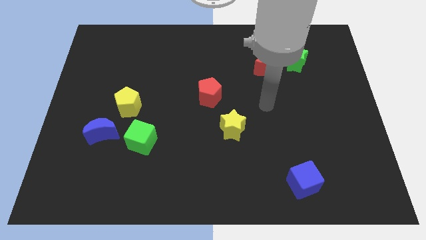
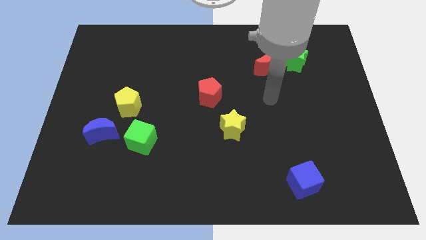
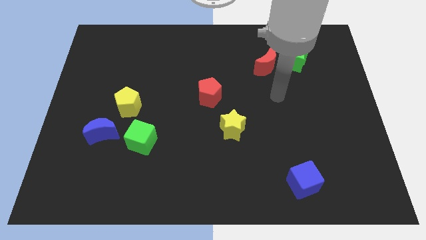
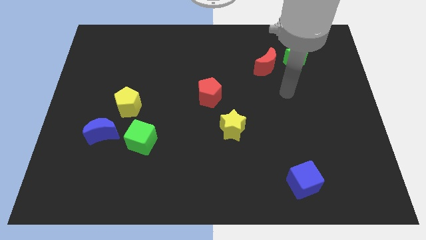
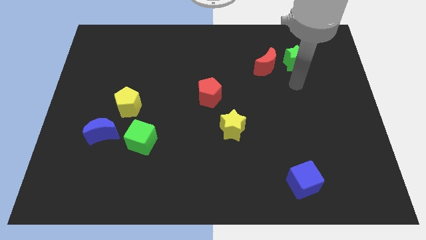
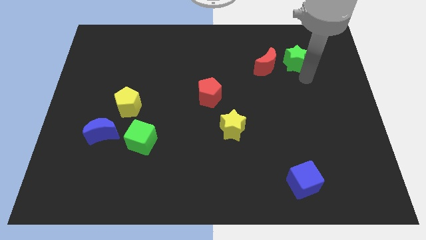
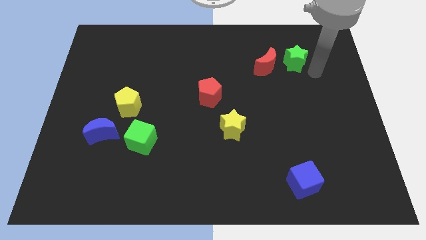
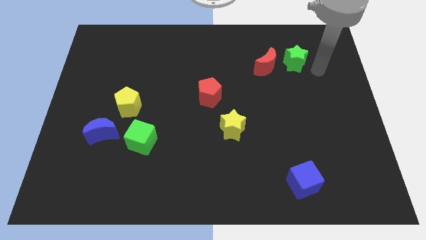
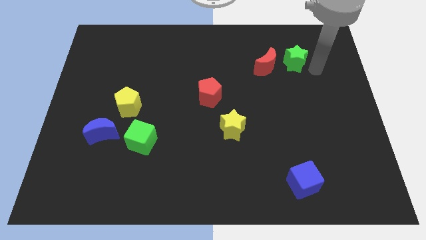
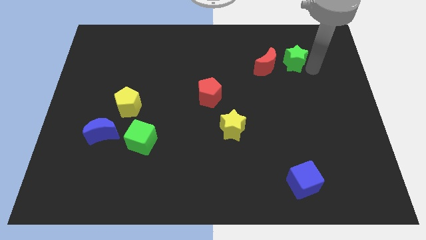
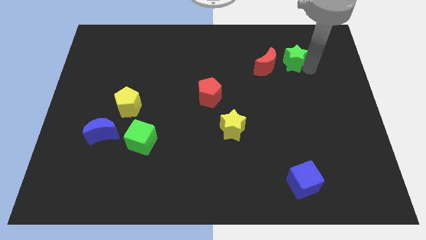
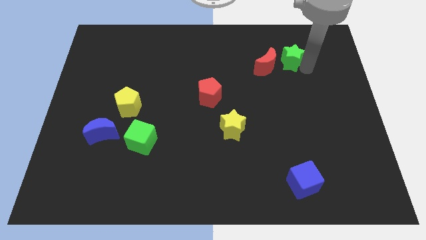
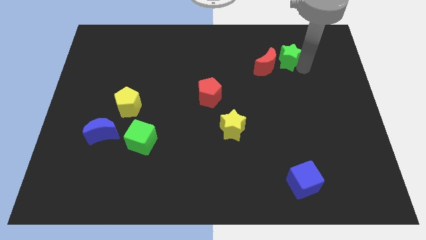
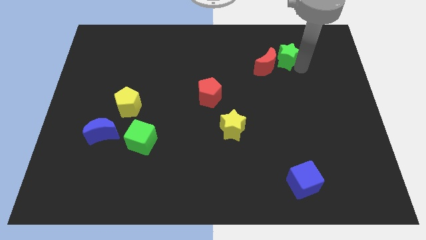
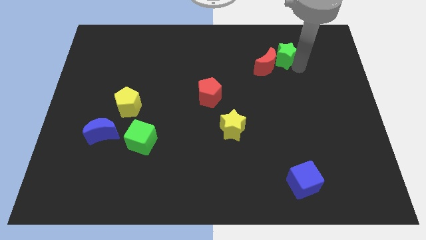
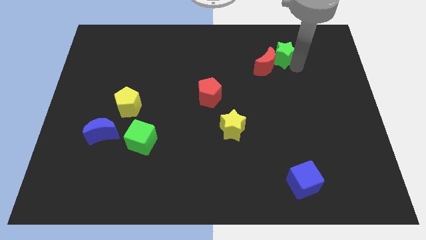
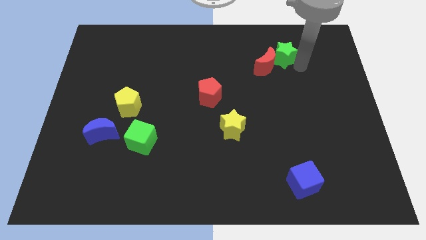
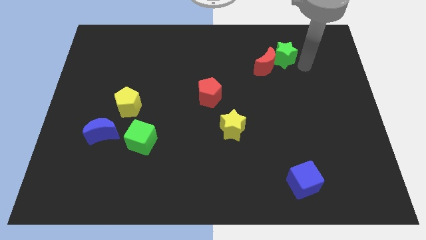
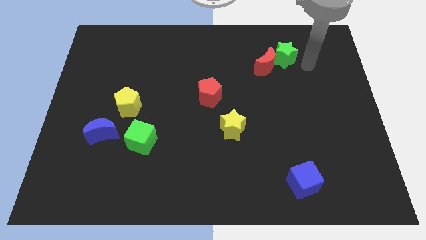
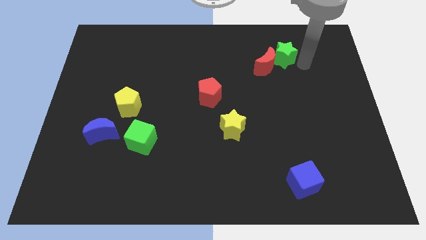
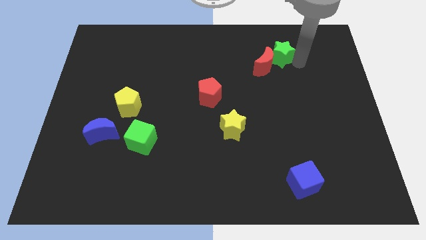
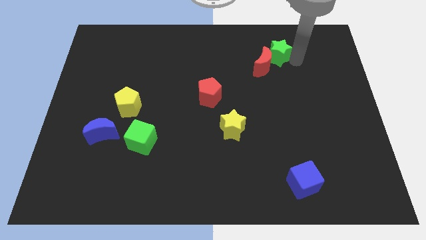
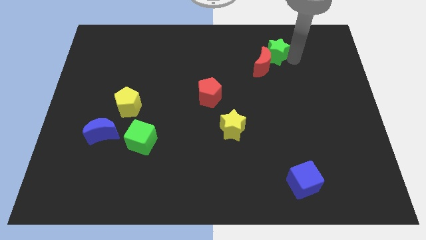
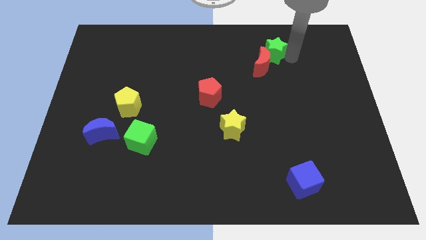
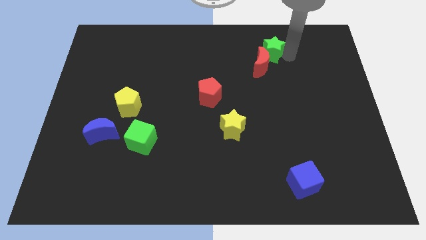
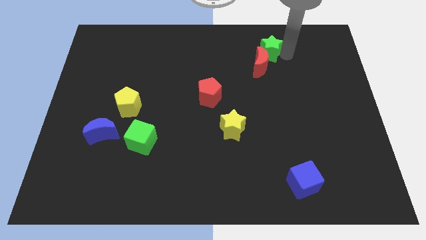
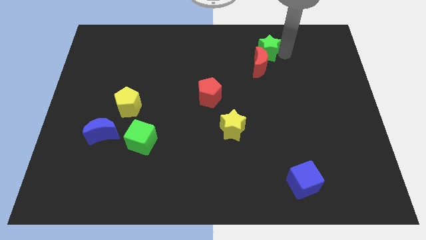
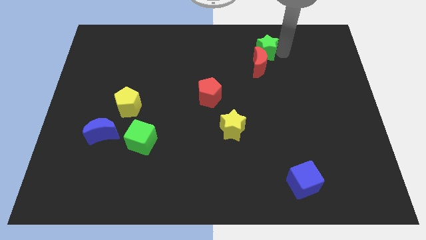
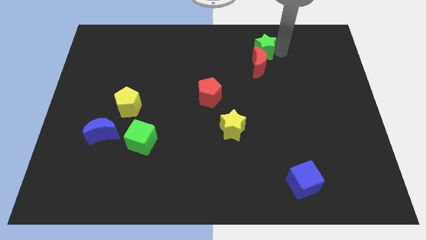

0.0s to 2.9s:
slightly slide the green star to the left

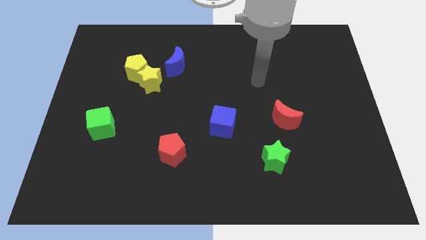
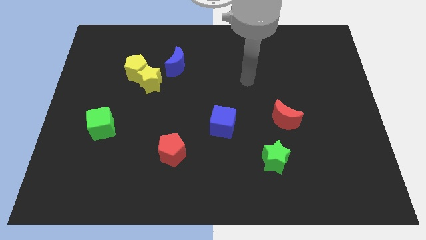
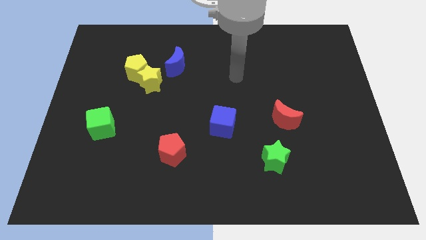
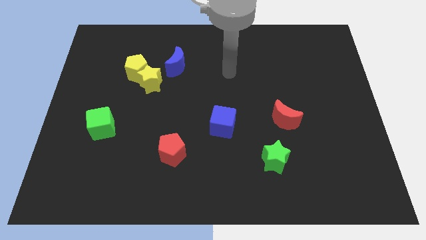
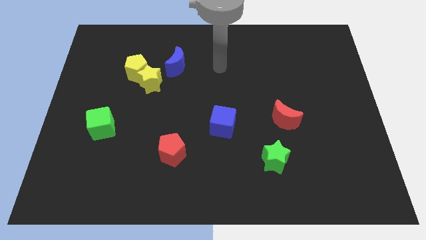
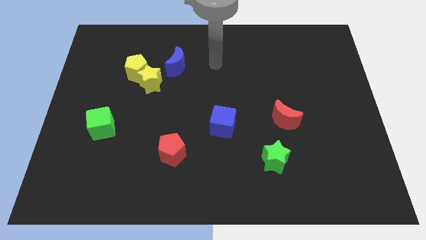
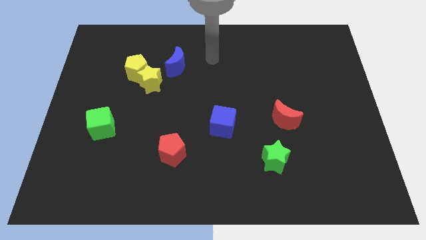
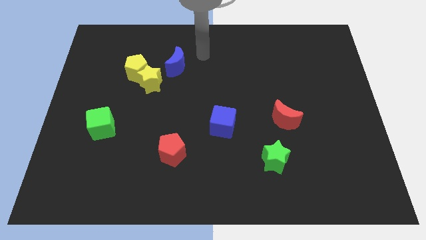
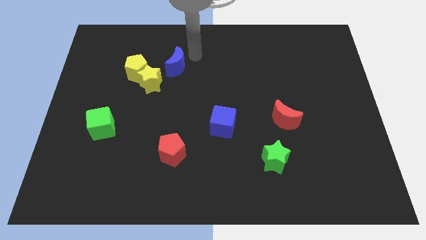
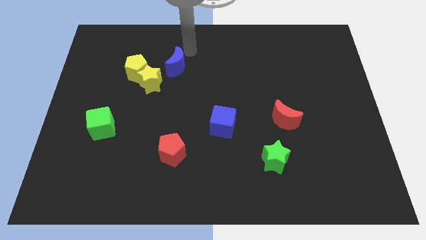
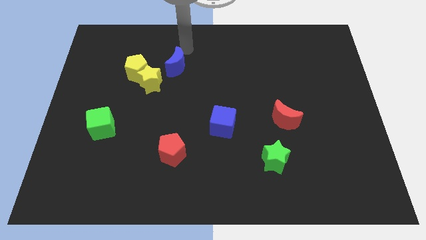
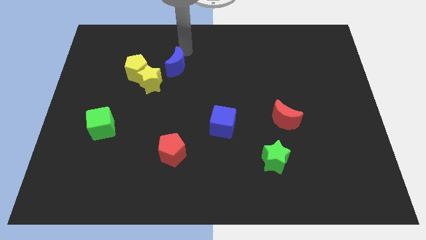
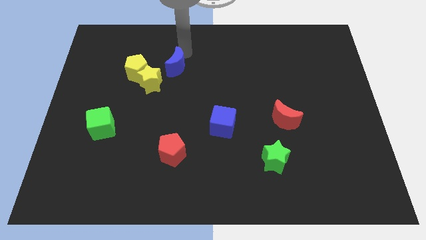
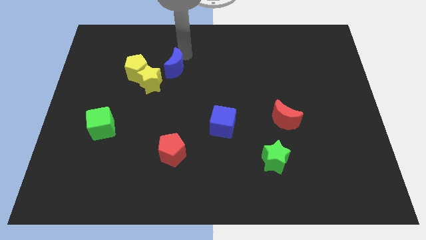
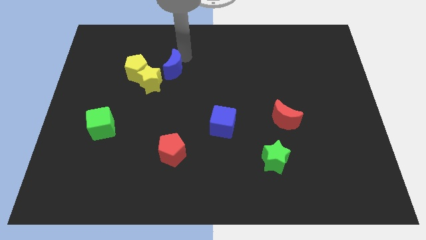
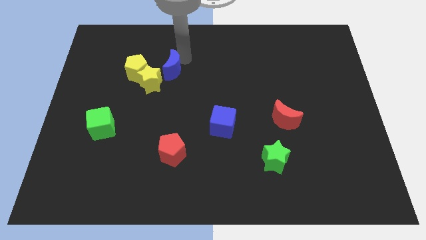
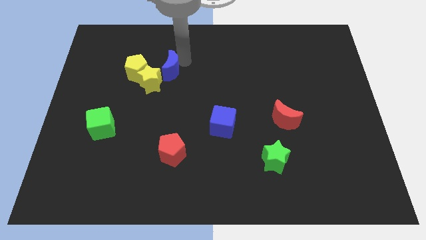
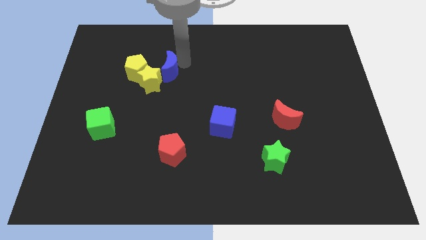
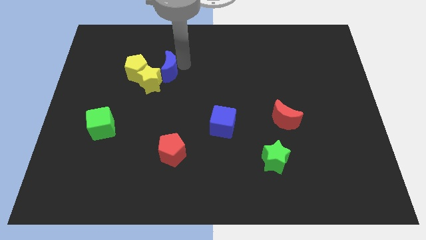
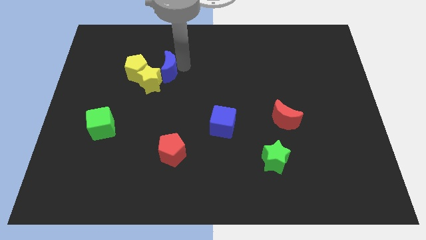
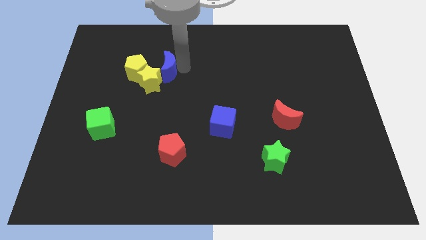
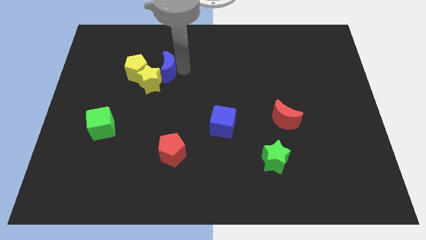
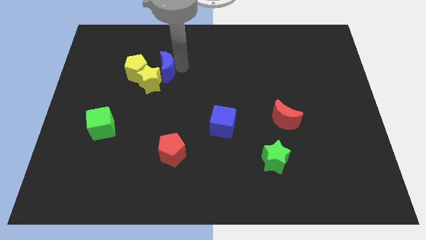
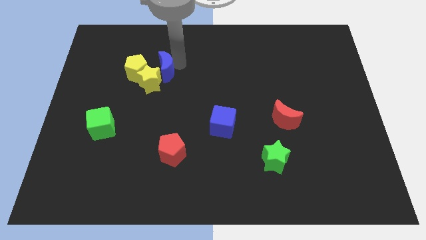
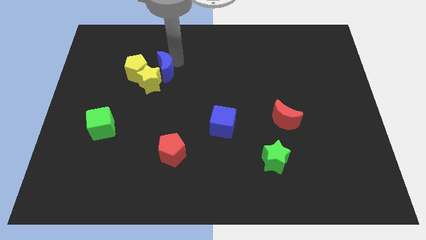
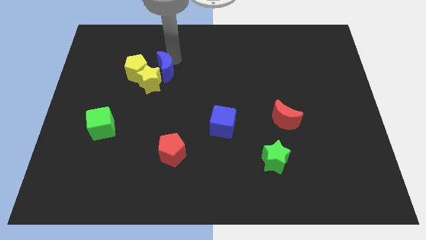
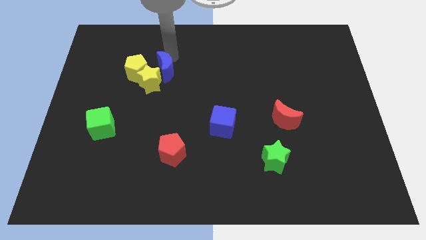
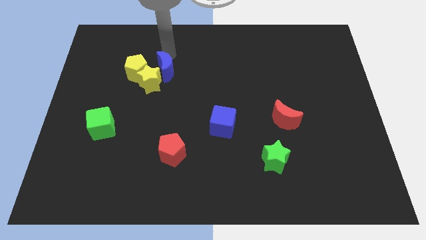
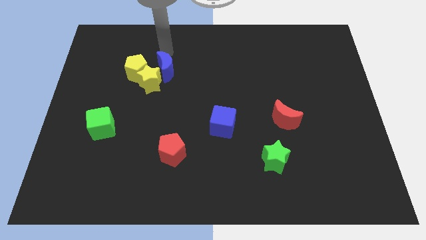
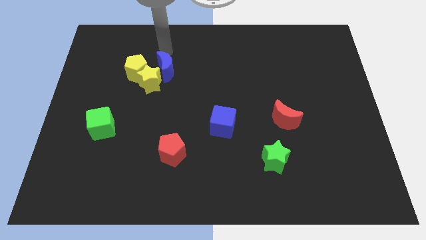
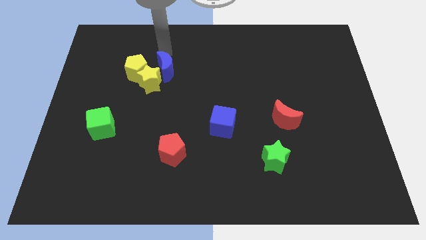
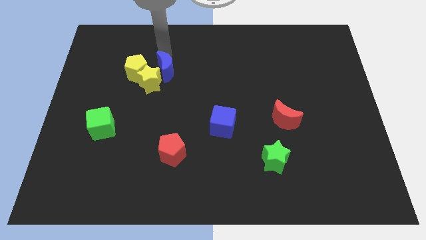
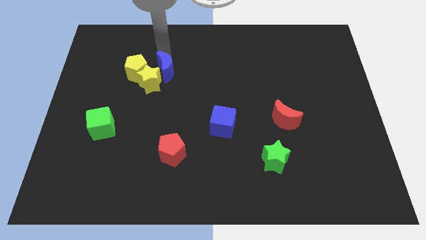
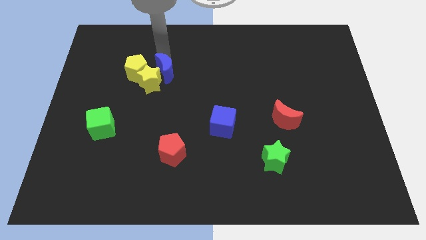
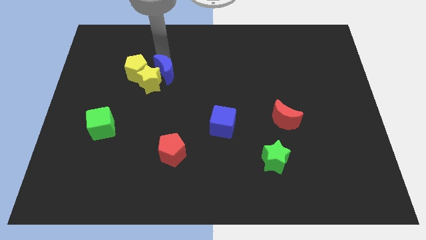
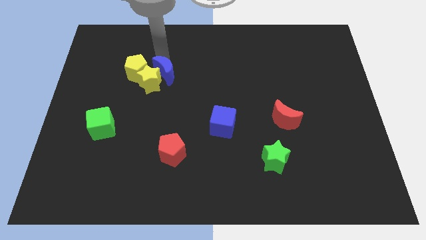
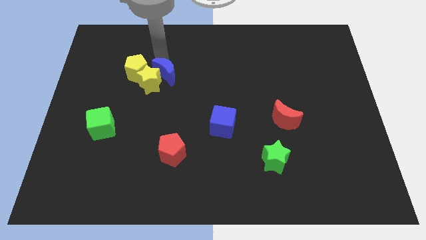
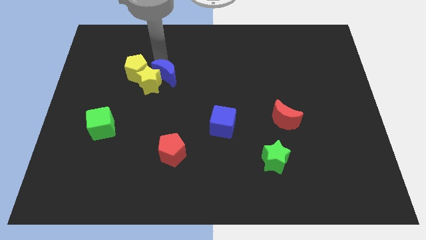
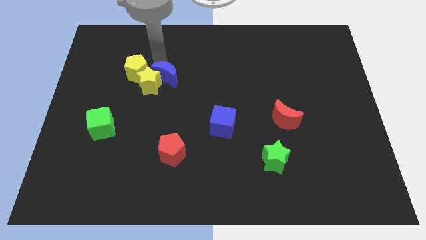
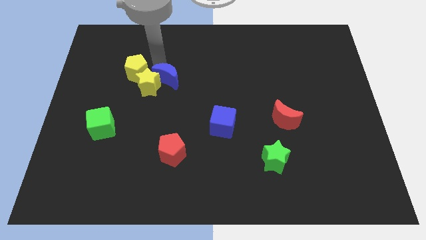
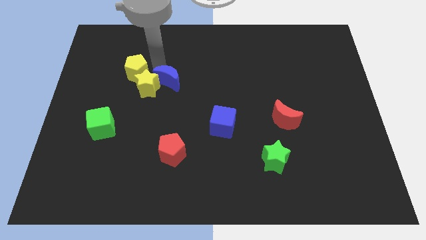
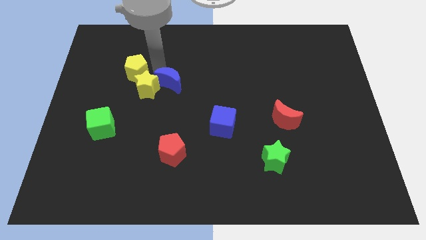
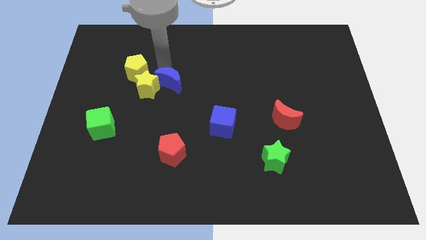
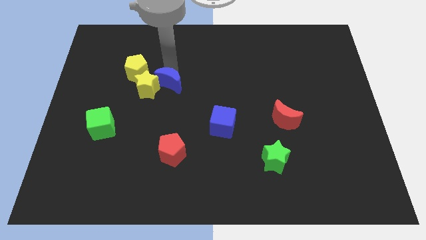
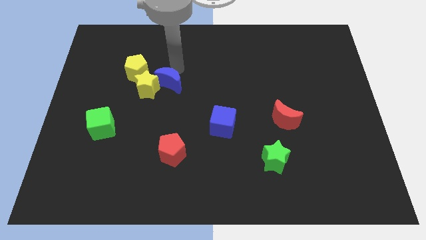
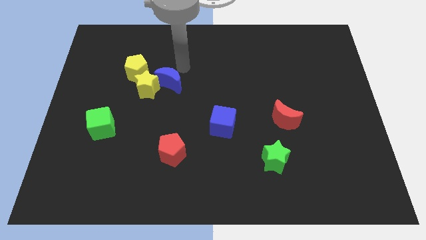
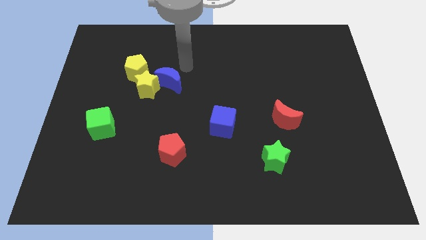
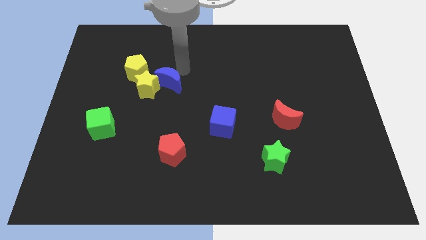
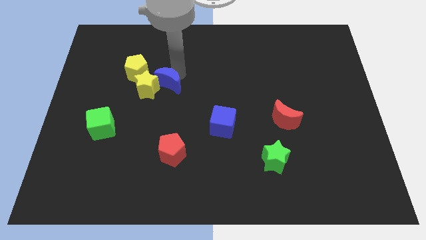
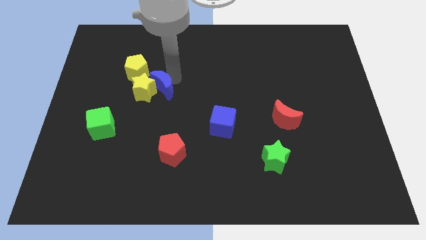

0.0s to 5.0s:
move the blue moon a little bit downwards and left

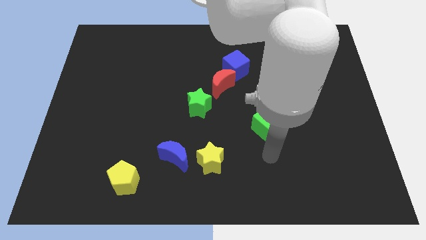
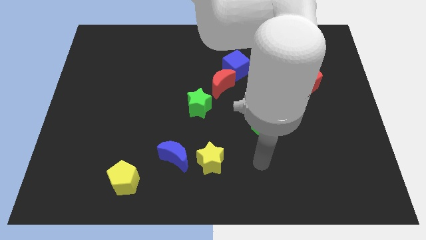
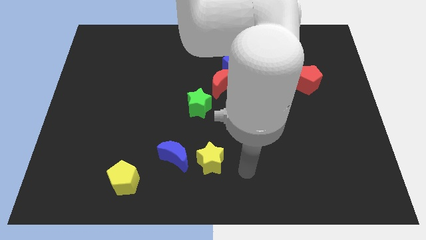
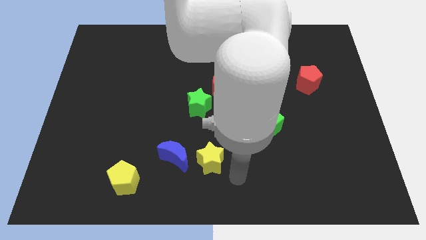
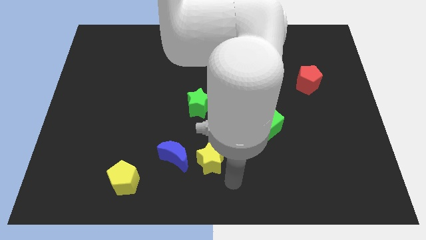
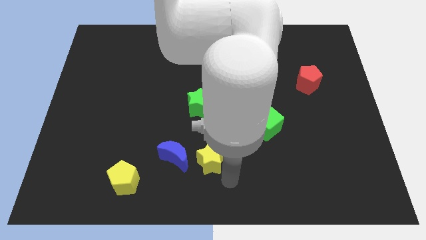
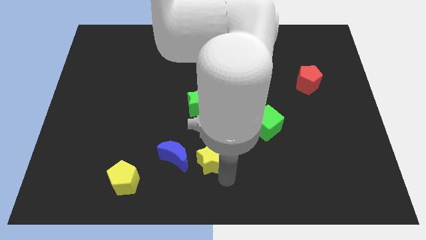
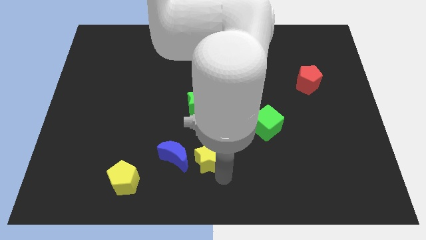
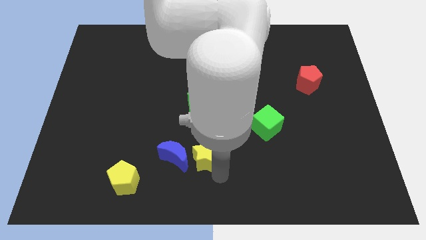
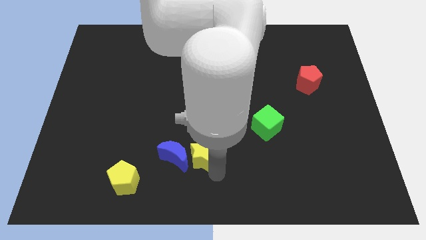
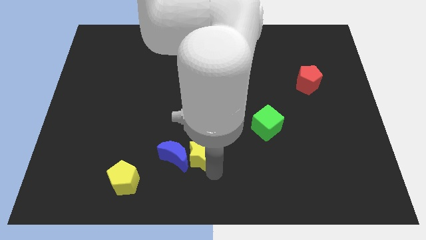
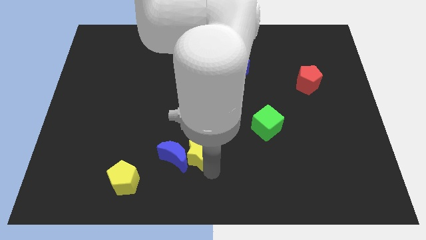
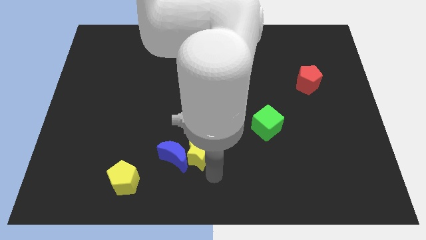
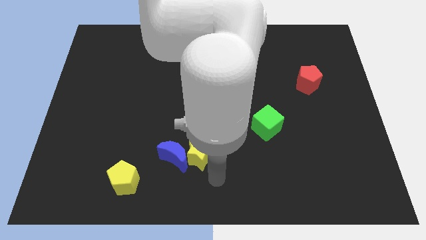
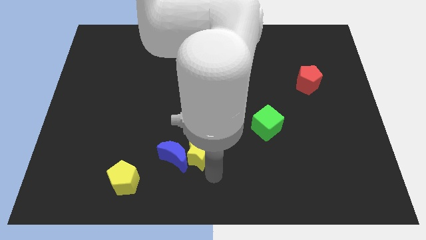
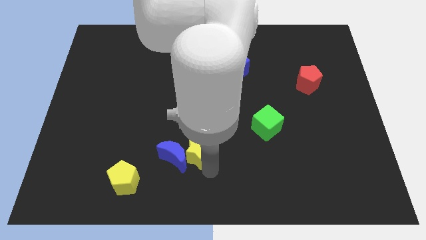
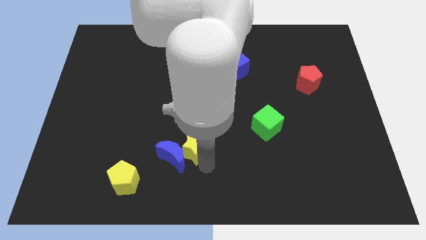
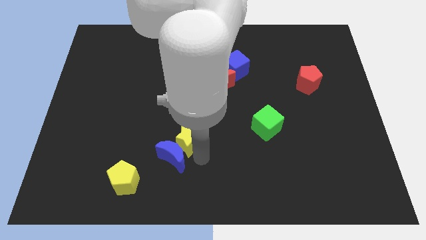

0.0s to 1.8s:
slightly push the yellow star up and left diagonally
